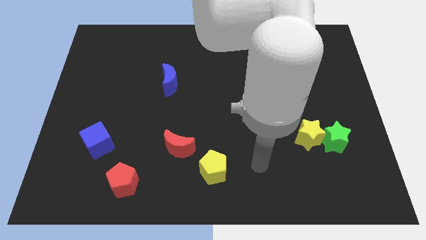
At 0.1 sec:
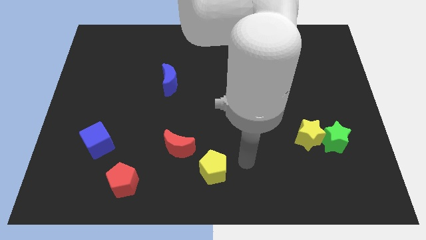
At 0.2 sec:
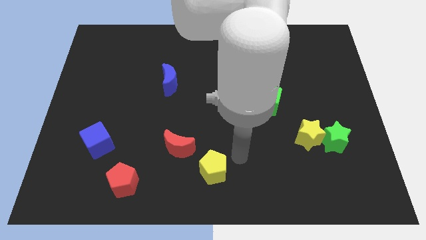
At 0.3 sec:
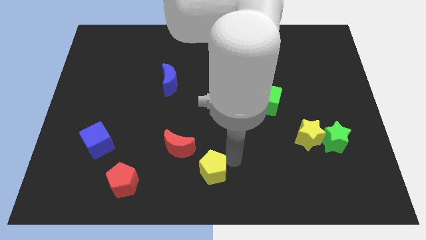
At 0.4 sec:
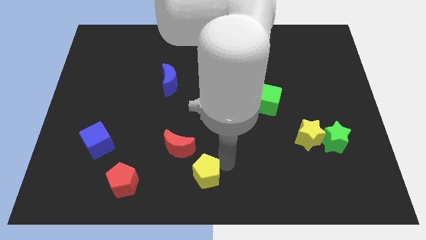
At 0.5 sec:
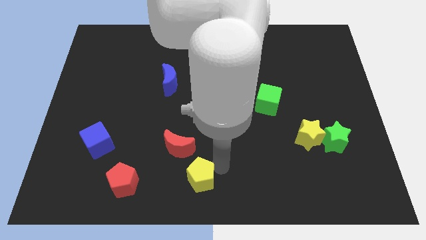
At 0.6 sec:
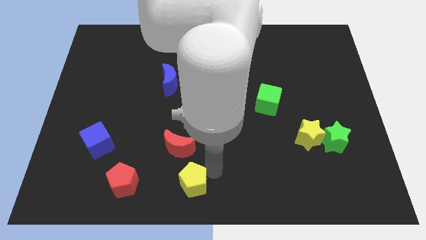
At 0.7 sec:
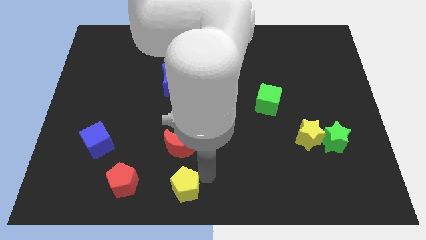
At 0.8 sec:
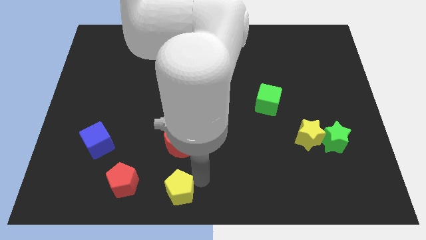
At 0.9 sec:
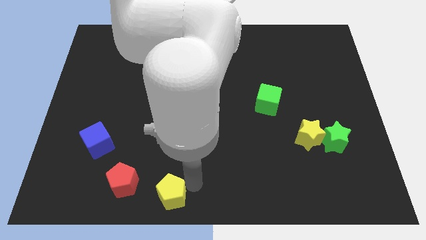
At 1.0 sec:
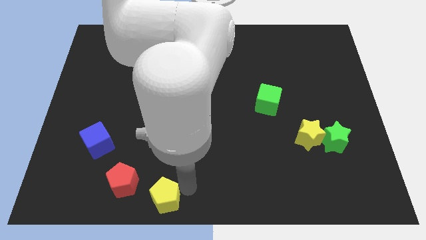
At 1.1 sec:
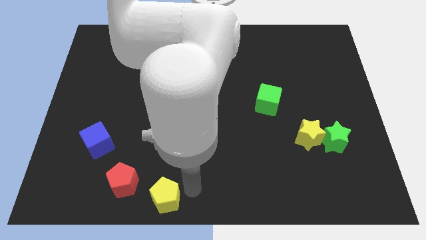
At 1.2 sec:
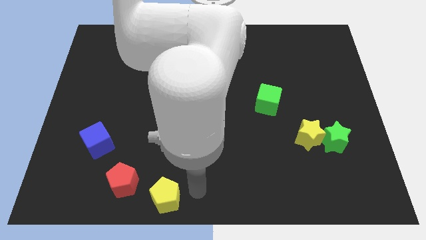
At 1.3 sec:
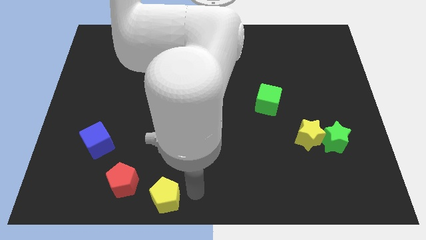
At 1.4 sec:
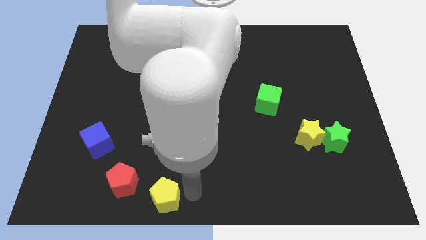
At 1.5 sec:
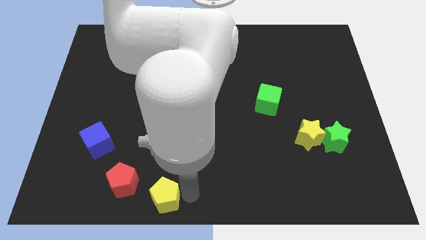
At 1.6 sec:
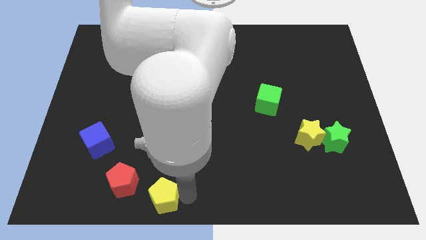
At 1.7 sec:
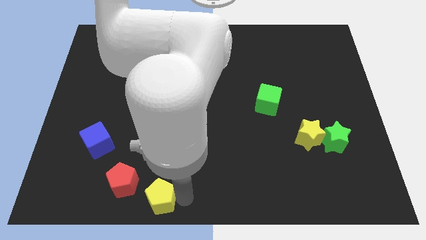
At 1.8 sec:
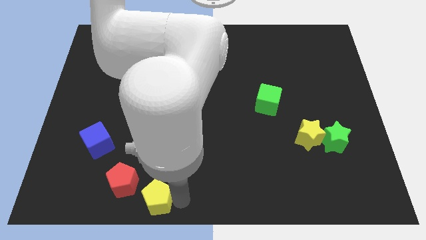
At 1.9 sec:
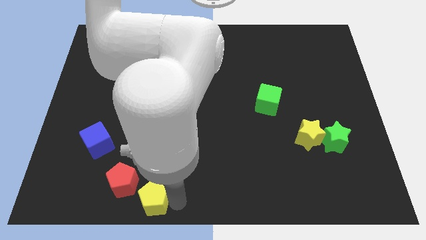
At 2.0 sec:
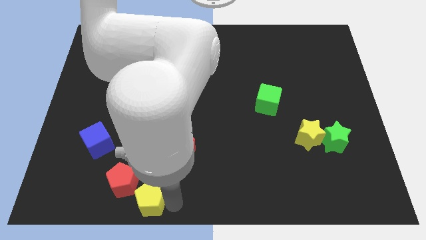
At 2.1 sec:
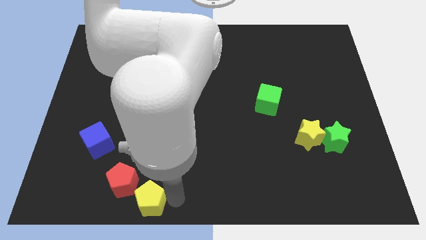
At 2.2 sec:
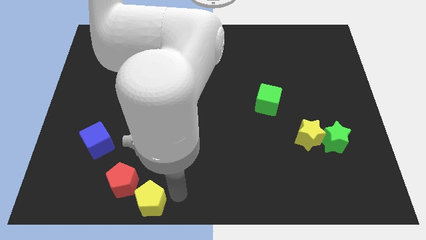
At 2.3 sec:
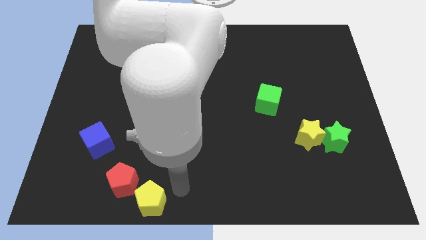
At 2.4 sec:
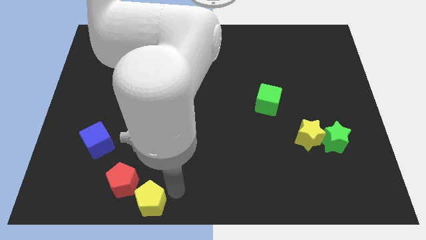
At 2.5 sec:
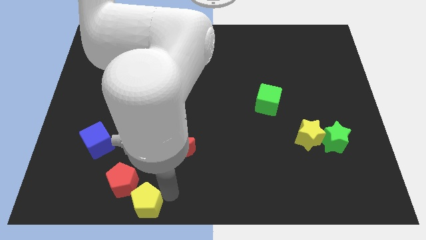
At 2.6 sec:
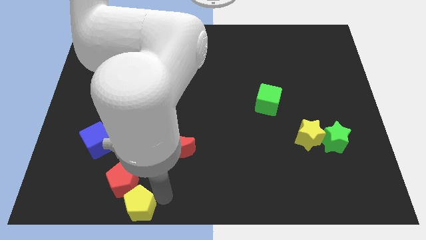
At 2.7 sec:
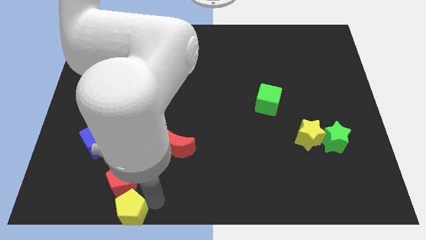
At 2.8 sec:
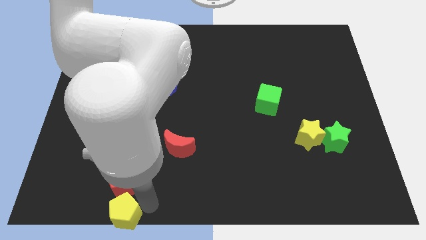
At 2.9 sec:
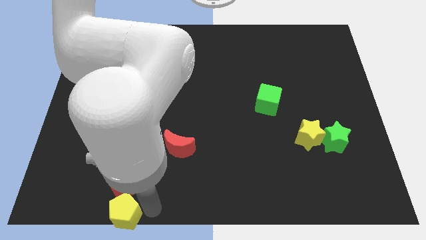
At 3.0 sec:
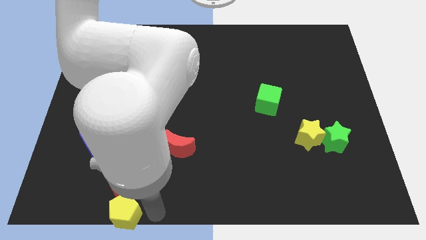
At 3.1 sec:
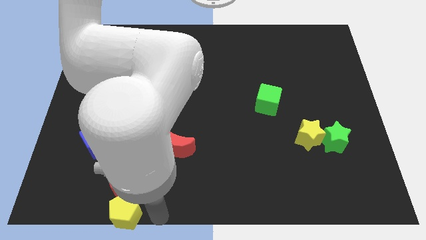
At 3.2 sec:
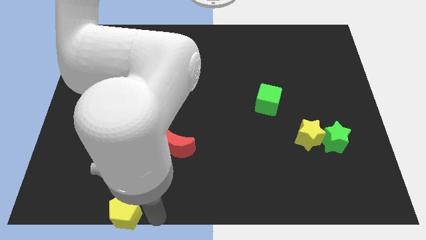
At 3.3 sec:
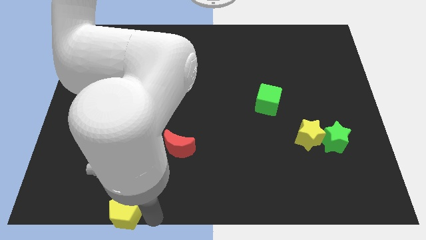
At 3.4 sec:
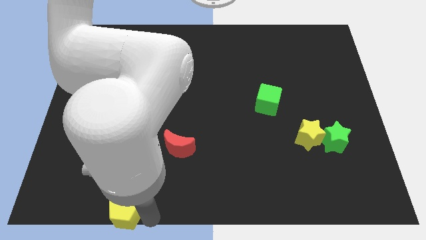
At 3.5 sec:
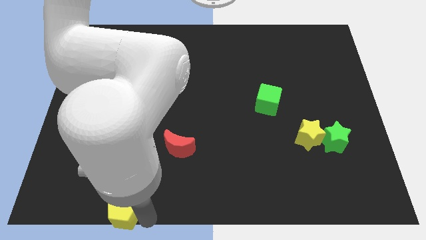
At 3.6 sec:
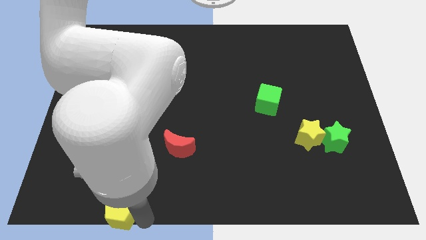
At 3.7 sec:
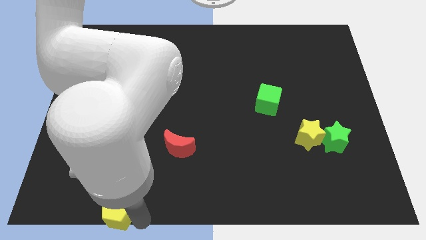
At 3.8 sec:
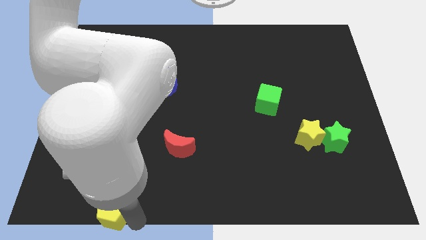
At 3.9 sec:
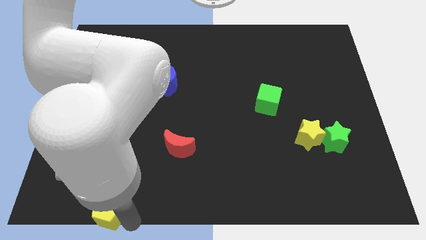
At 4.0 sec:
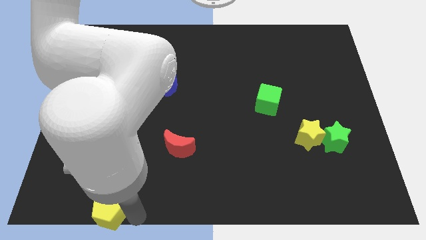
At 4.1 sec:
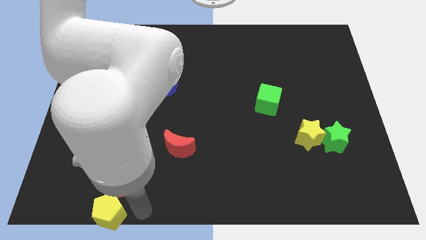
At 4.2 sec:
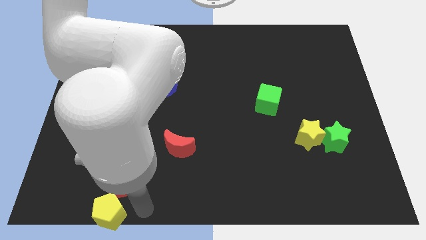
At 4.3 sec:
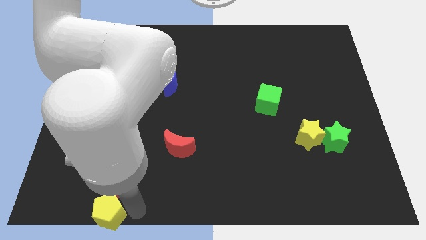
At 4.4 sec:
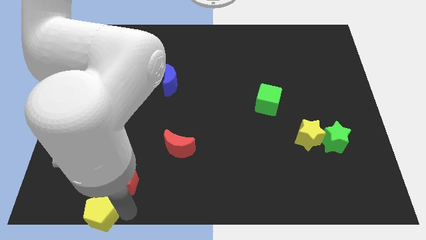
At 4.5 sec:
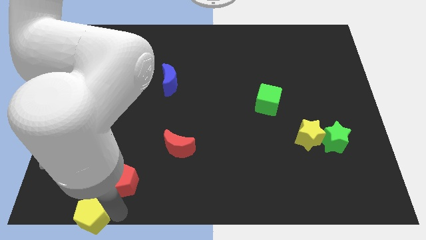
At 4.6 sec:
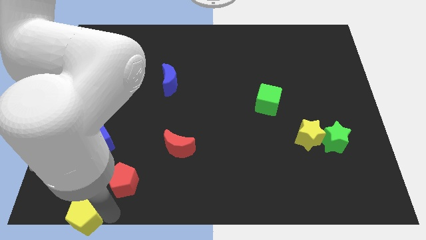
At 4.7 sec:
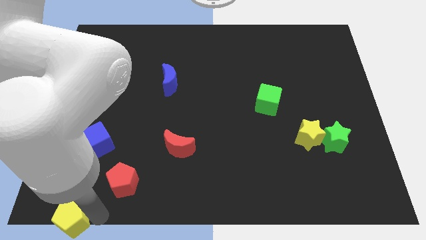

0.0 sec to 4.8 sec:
push the yellow pentagon to the bottom left of the board

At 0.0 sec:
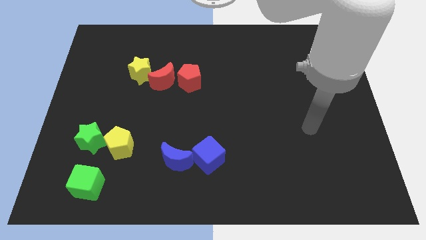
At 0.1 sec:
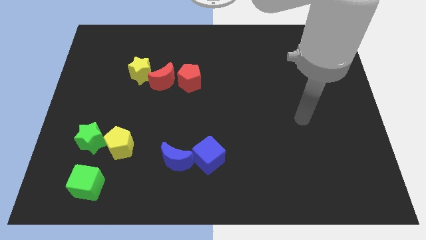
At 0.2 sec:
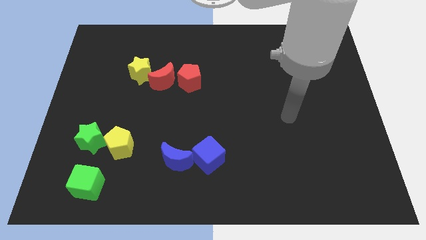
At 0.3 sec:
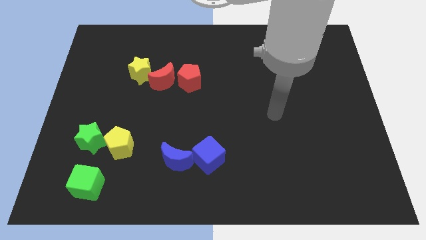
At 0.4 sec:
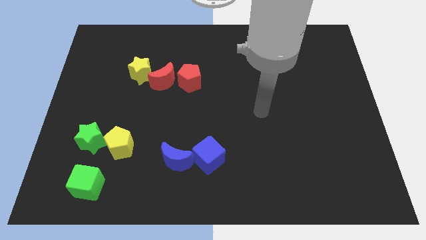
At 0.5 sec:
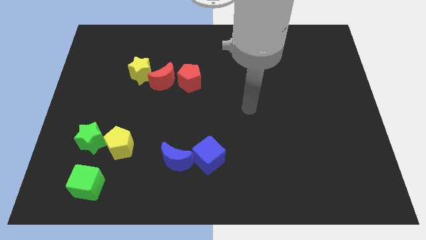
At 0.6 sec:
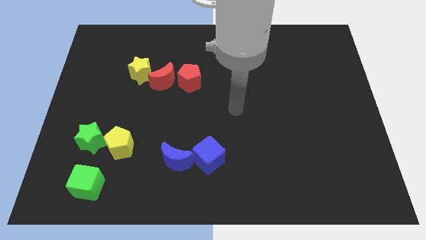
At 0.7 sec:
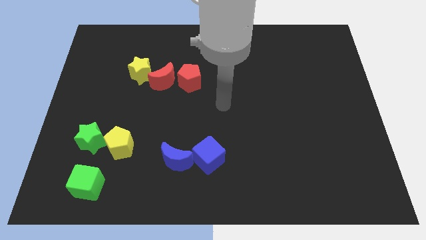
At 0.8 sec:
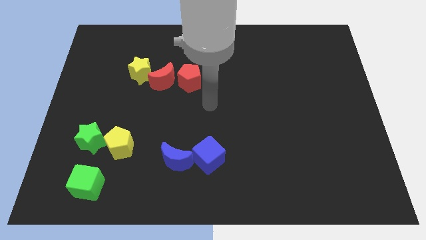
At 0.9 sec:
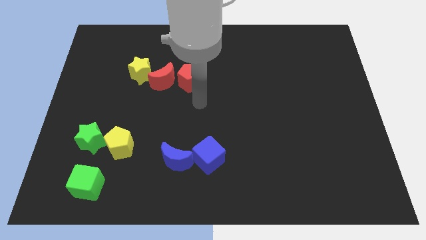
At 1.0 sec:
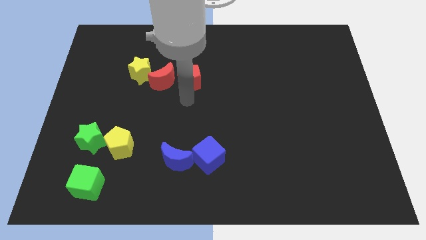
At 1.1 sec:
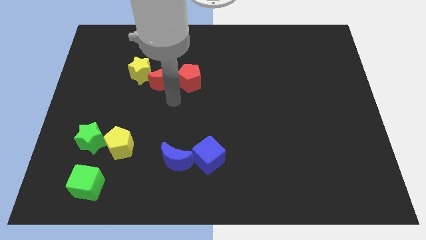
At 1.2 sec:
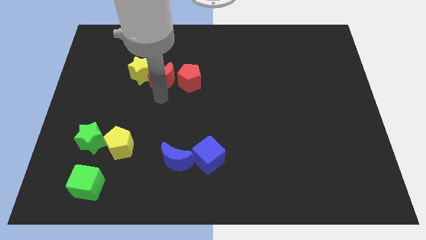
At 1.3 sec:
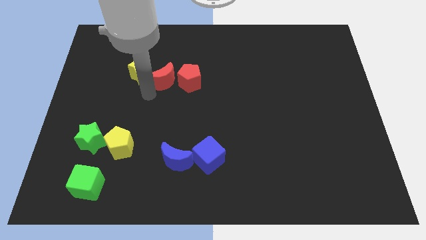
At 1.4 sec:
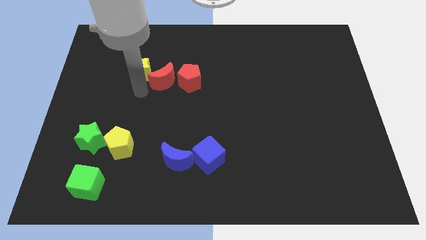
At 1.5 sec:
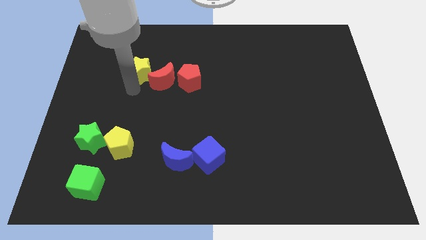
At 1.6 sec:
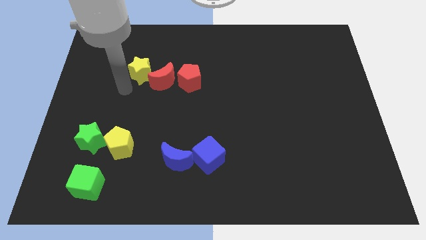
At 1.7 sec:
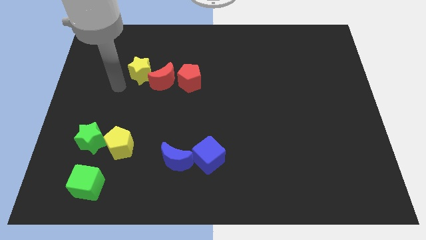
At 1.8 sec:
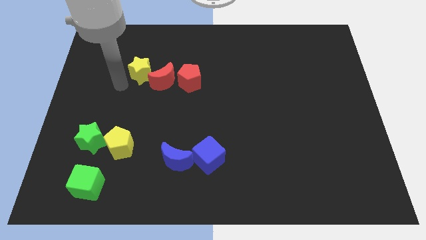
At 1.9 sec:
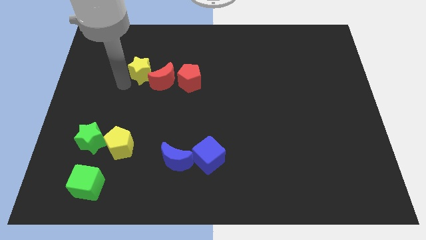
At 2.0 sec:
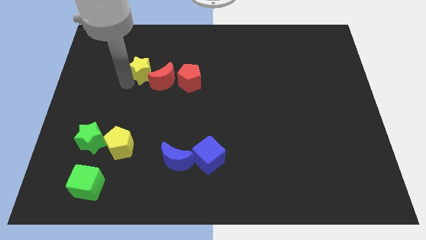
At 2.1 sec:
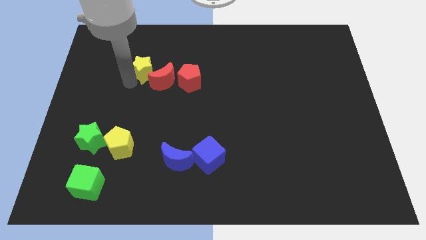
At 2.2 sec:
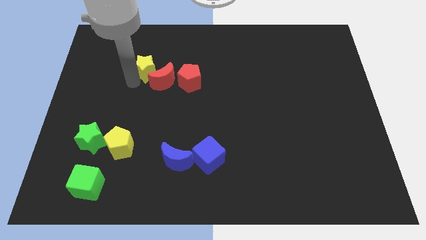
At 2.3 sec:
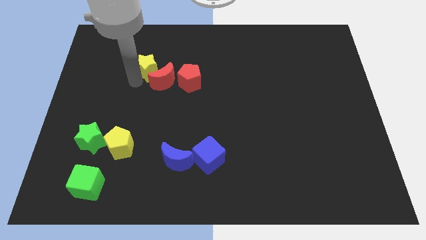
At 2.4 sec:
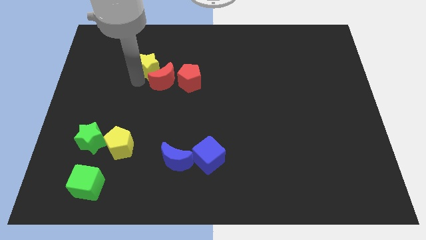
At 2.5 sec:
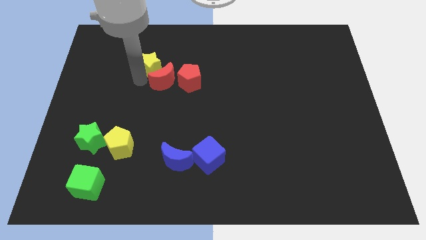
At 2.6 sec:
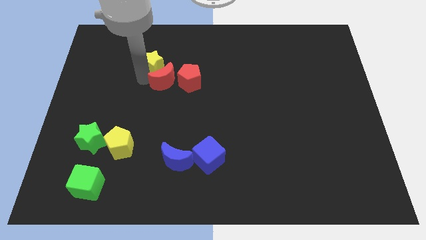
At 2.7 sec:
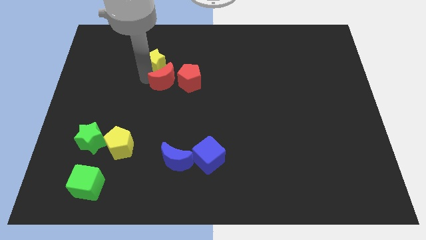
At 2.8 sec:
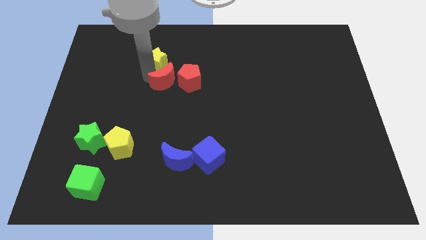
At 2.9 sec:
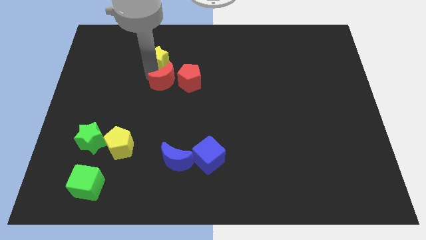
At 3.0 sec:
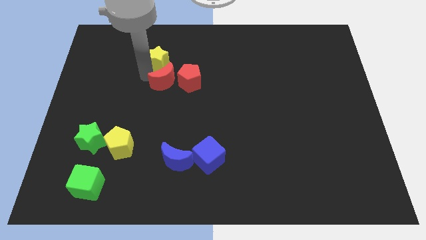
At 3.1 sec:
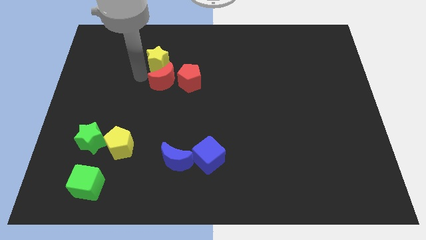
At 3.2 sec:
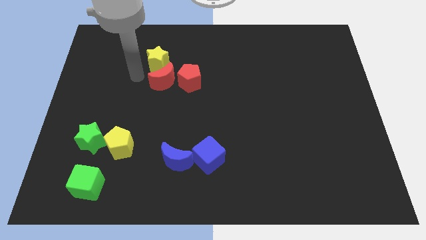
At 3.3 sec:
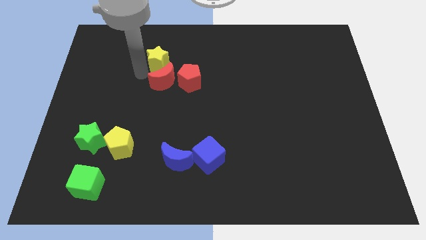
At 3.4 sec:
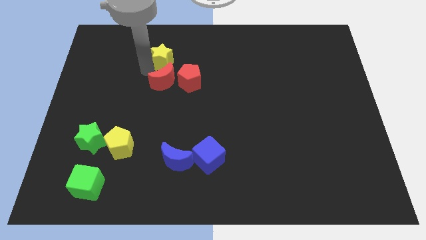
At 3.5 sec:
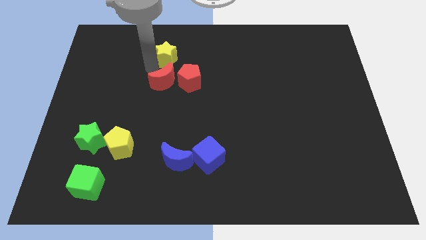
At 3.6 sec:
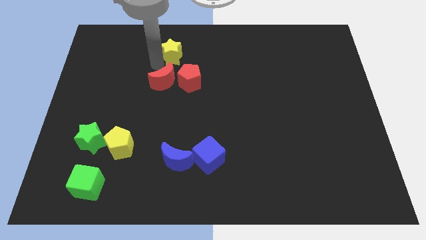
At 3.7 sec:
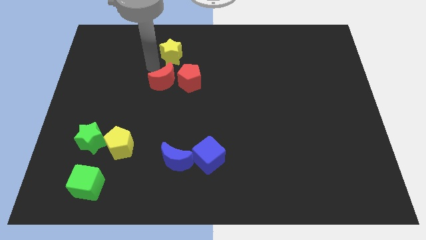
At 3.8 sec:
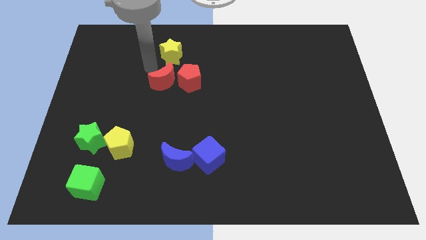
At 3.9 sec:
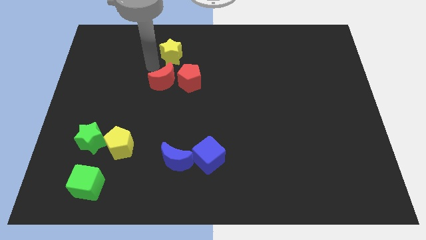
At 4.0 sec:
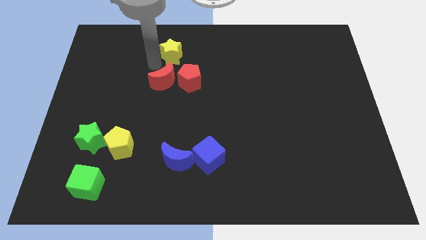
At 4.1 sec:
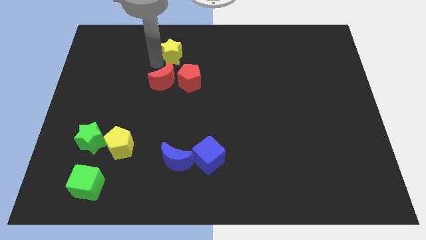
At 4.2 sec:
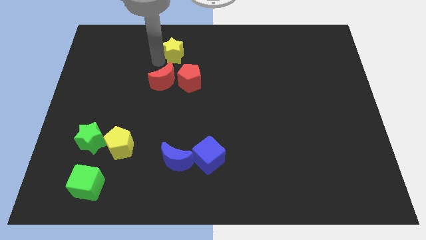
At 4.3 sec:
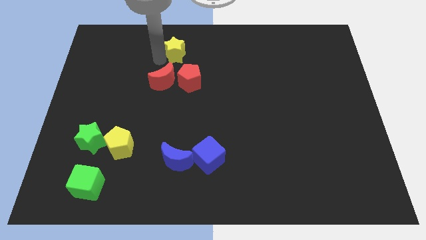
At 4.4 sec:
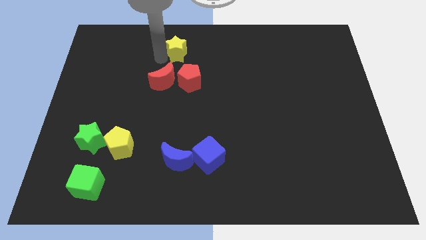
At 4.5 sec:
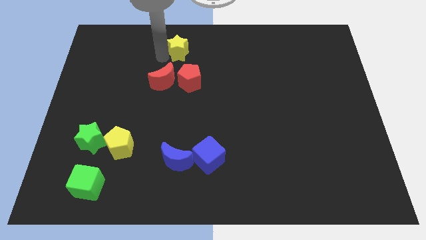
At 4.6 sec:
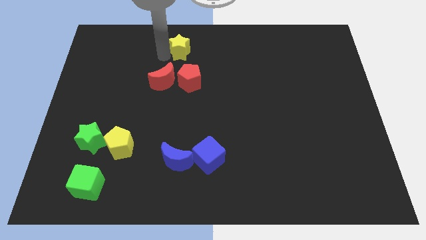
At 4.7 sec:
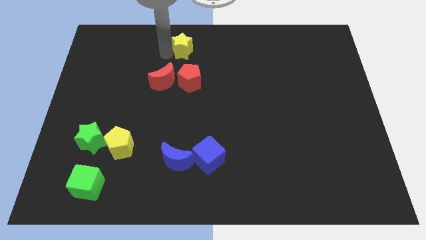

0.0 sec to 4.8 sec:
slide the yellow star to the top
